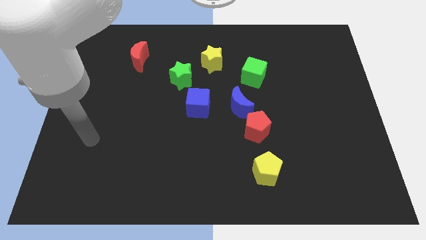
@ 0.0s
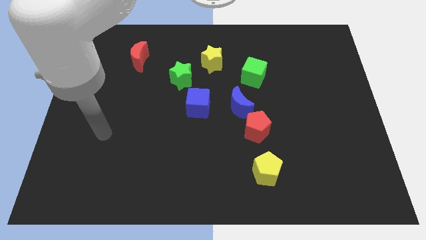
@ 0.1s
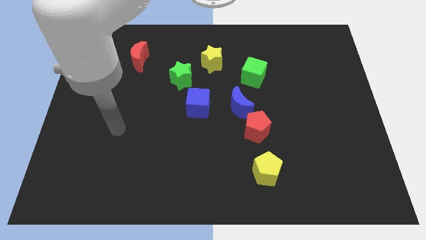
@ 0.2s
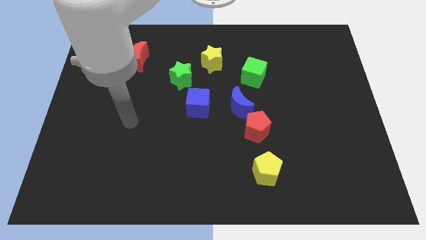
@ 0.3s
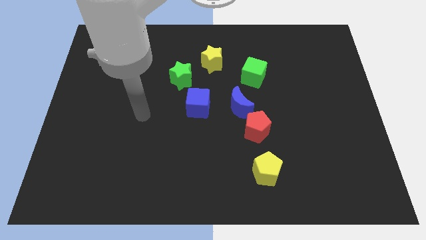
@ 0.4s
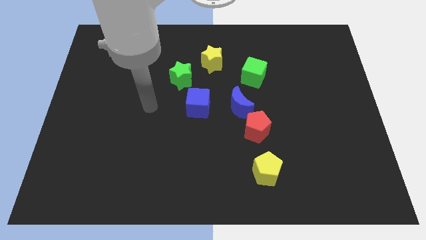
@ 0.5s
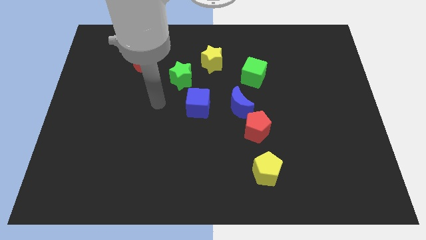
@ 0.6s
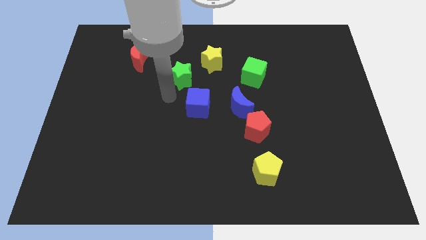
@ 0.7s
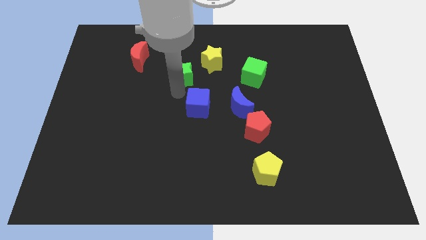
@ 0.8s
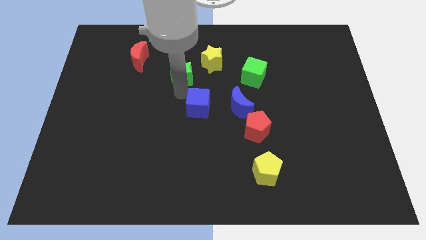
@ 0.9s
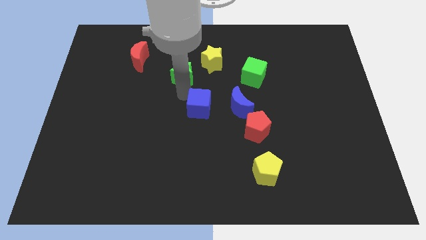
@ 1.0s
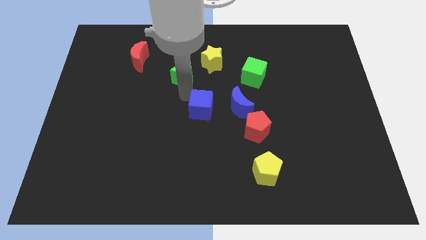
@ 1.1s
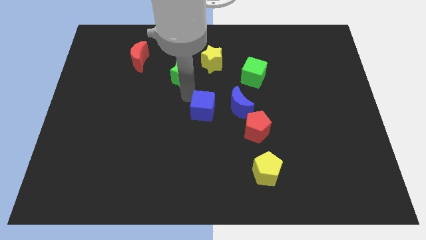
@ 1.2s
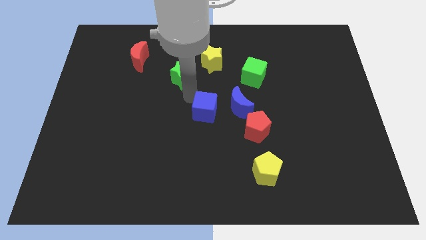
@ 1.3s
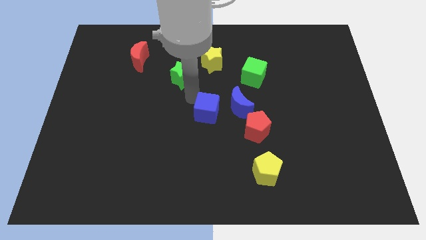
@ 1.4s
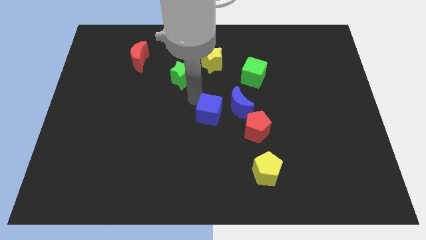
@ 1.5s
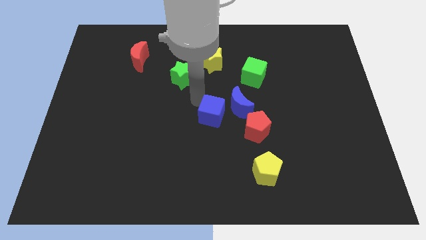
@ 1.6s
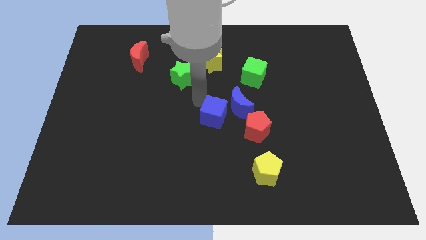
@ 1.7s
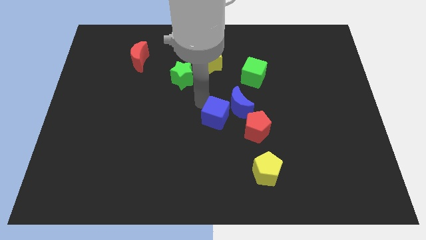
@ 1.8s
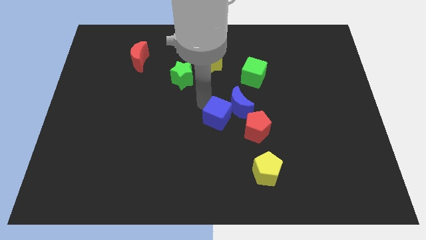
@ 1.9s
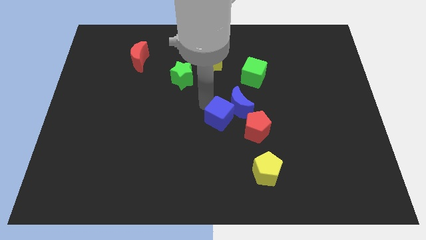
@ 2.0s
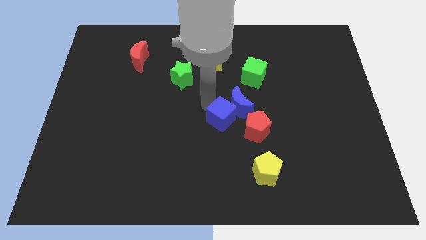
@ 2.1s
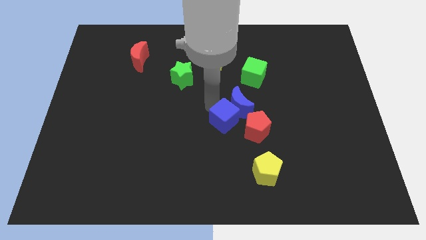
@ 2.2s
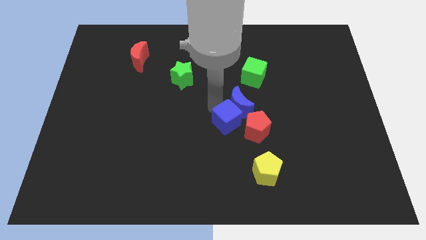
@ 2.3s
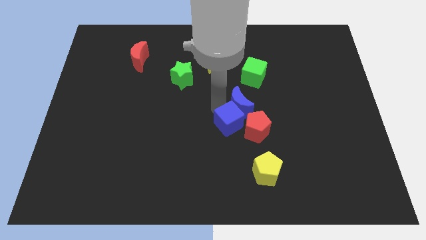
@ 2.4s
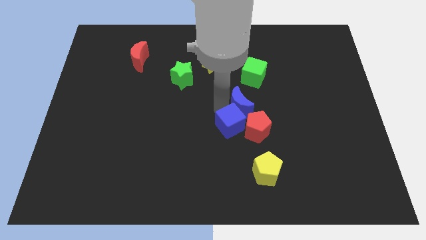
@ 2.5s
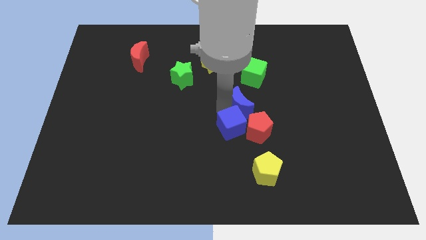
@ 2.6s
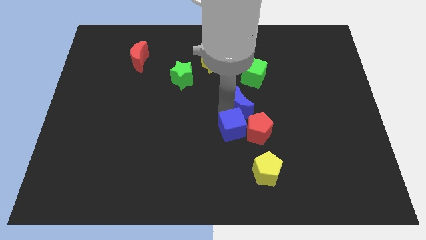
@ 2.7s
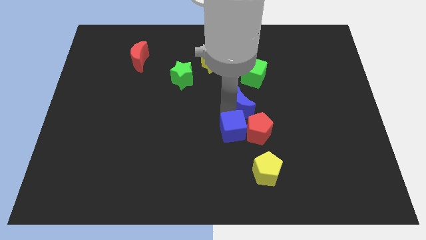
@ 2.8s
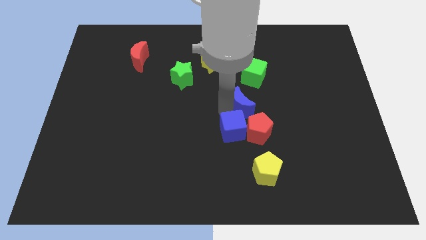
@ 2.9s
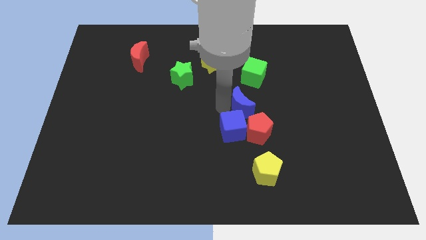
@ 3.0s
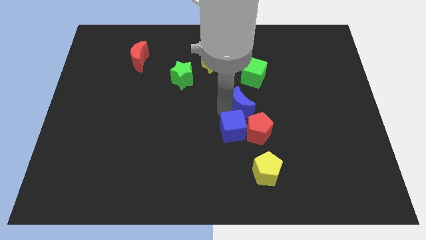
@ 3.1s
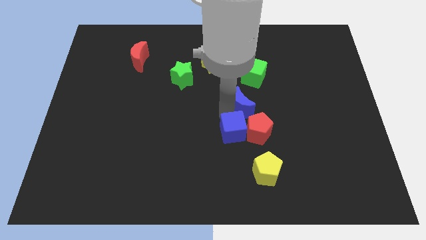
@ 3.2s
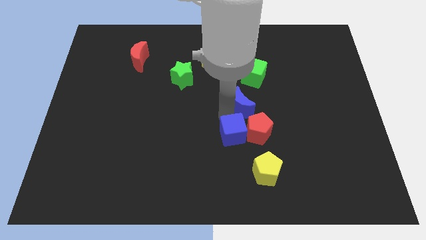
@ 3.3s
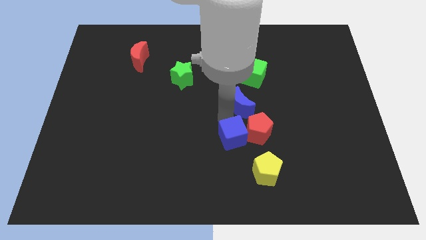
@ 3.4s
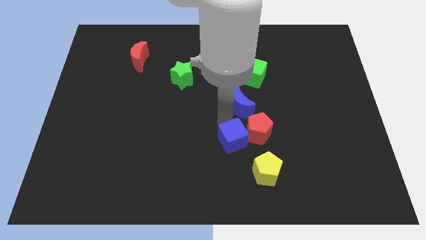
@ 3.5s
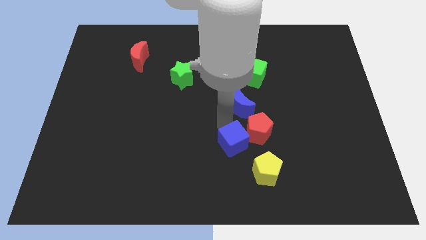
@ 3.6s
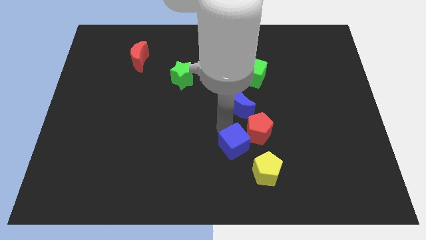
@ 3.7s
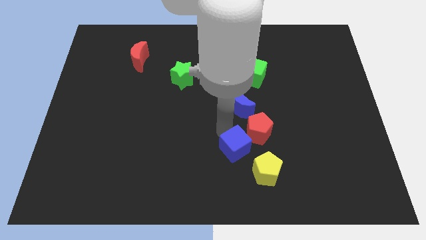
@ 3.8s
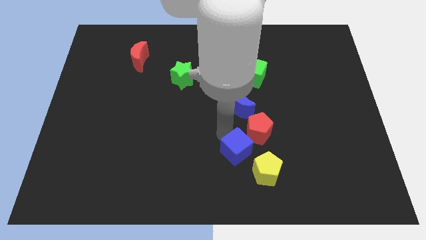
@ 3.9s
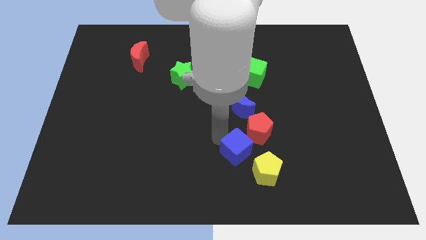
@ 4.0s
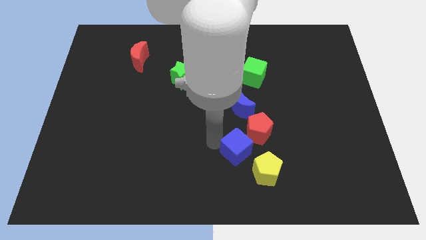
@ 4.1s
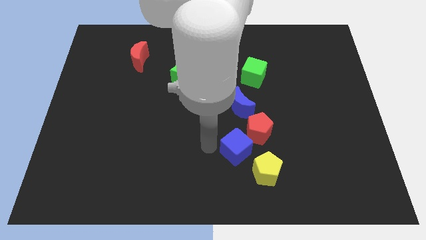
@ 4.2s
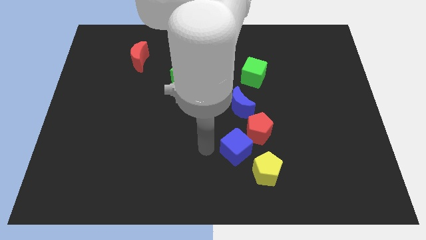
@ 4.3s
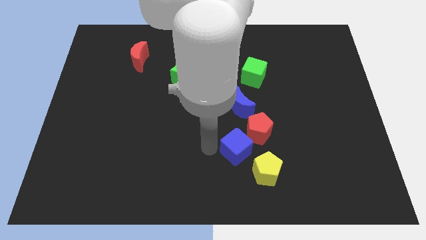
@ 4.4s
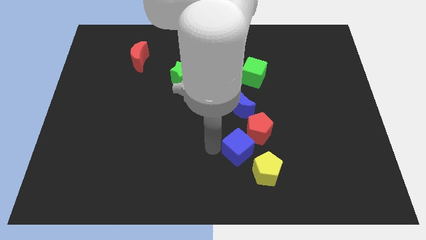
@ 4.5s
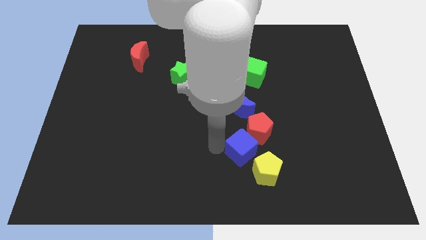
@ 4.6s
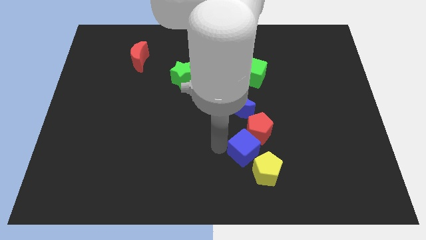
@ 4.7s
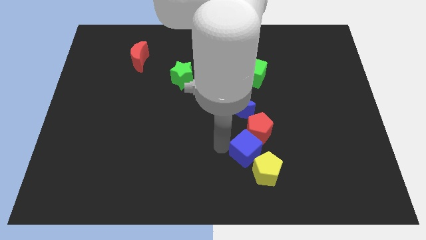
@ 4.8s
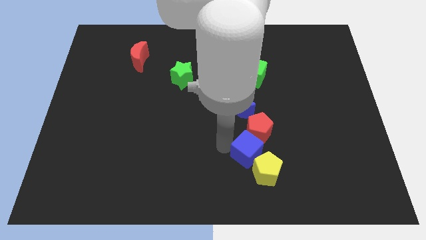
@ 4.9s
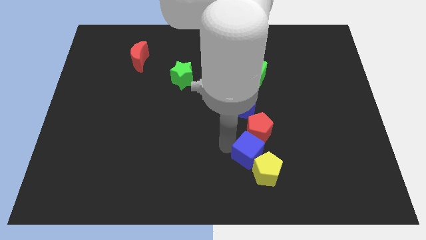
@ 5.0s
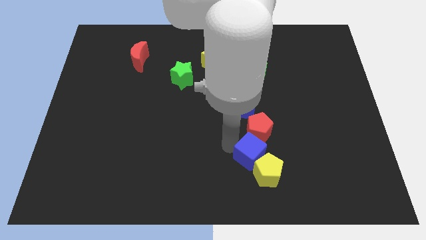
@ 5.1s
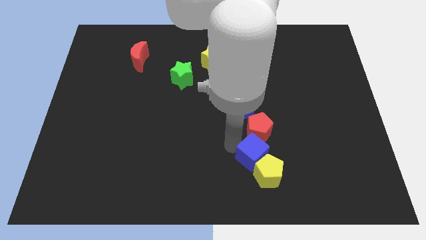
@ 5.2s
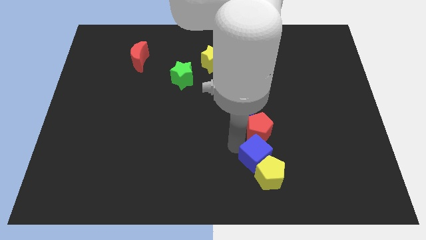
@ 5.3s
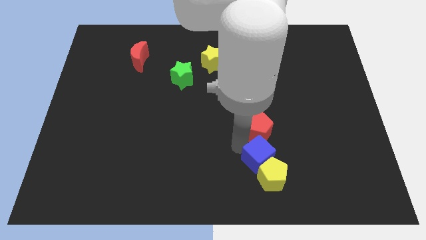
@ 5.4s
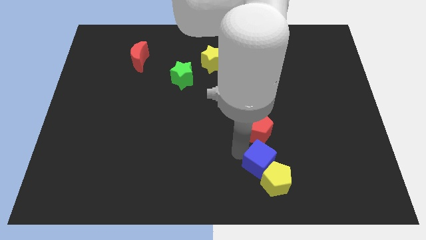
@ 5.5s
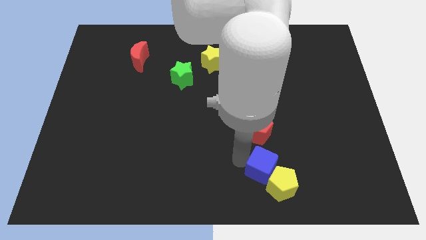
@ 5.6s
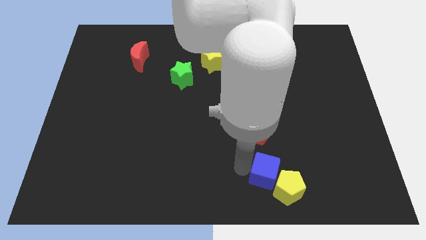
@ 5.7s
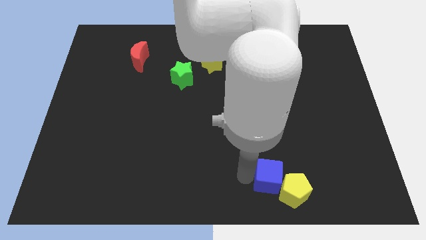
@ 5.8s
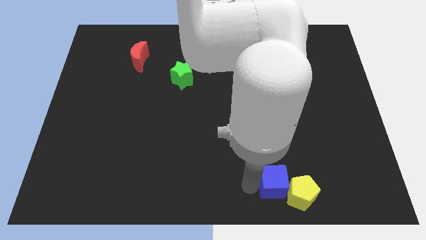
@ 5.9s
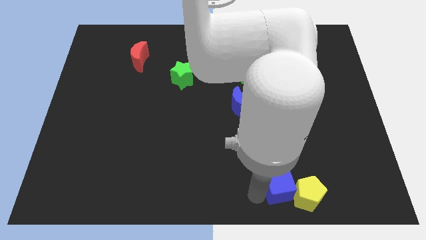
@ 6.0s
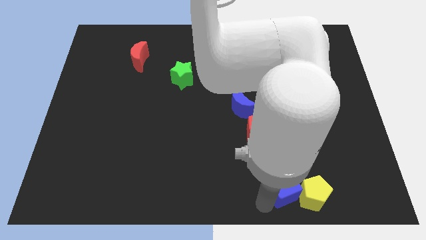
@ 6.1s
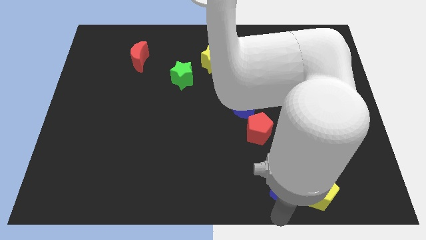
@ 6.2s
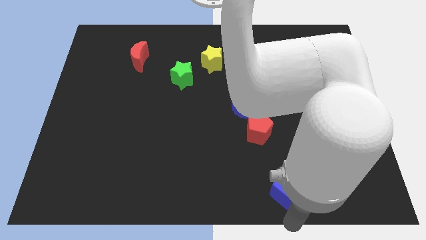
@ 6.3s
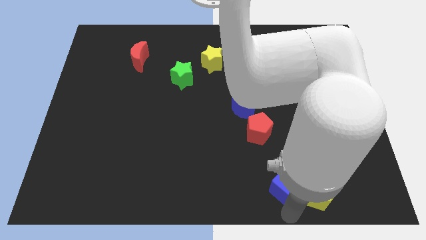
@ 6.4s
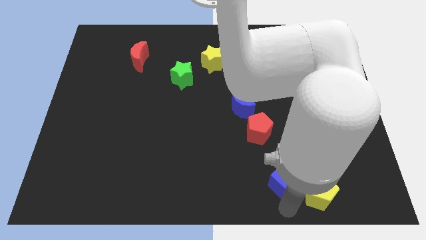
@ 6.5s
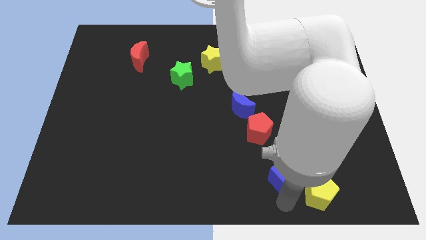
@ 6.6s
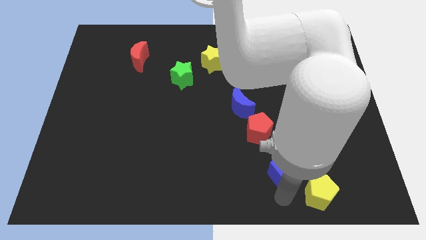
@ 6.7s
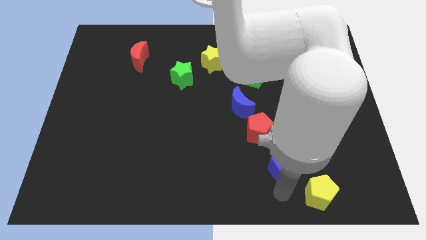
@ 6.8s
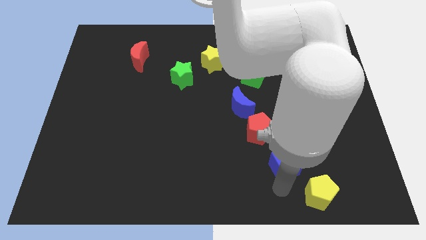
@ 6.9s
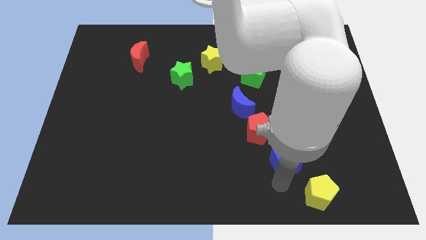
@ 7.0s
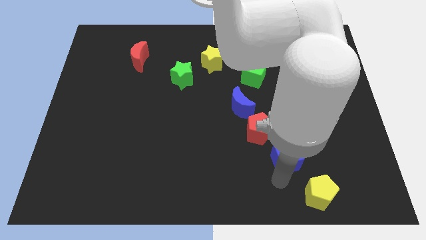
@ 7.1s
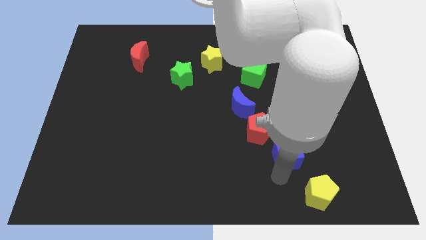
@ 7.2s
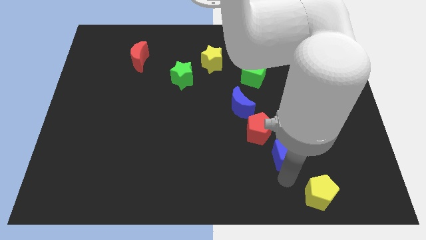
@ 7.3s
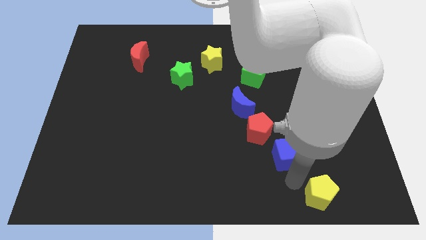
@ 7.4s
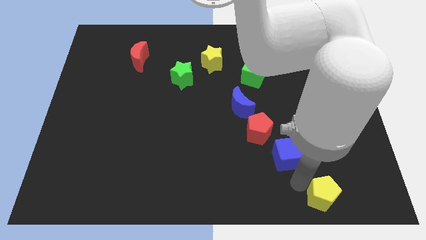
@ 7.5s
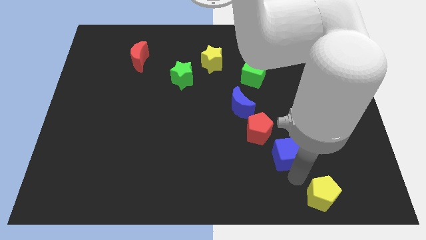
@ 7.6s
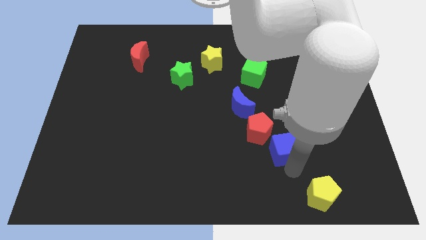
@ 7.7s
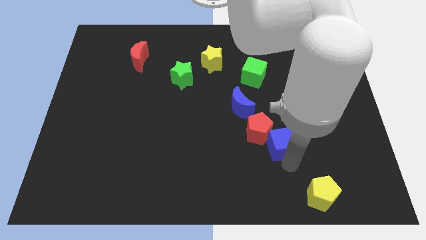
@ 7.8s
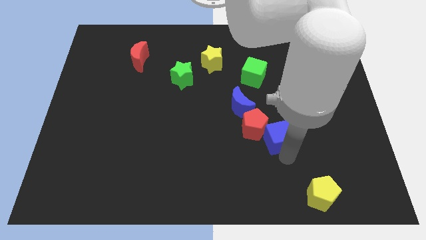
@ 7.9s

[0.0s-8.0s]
push the blue cube to the bottom right of the blue moon
